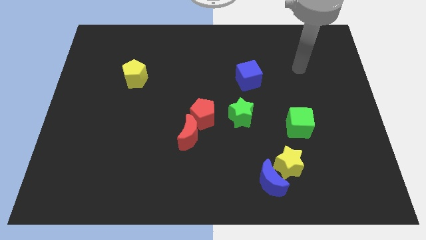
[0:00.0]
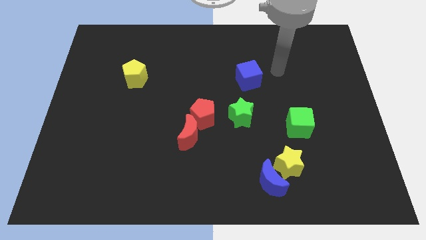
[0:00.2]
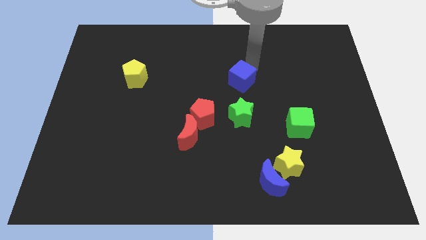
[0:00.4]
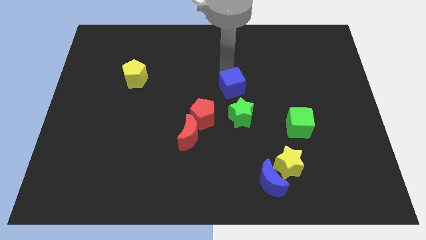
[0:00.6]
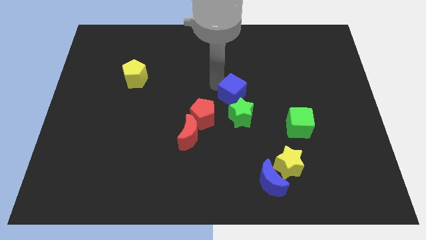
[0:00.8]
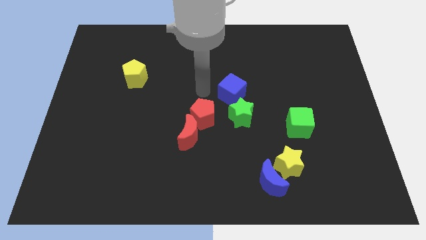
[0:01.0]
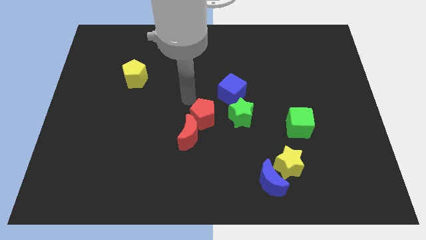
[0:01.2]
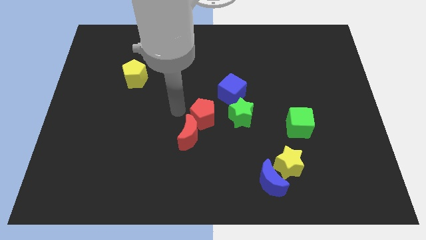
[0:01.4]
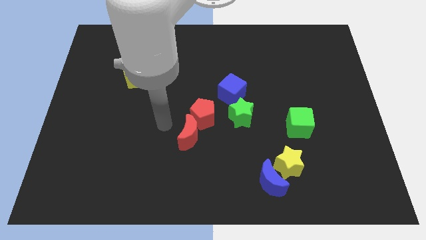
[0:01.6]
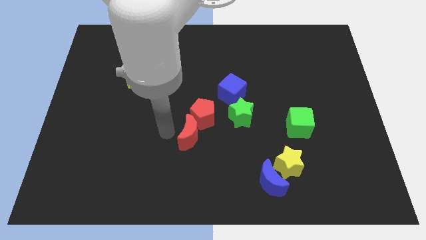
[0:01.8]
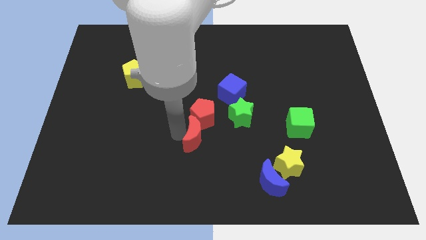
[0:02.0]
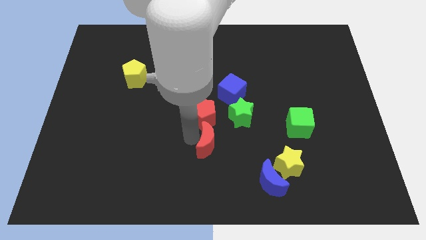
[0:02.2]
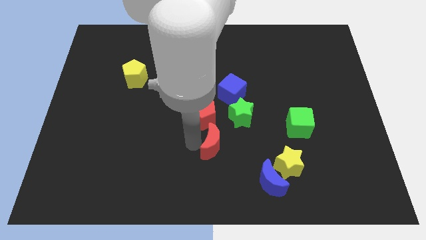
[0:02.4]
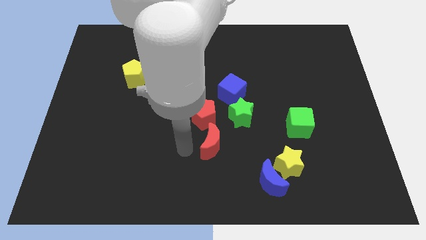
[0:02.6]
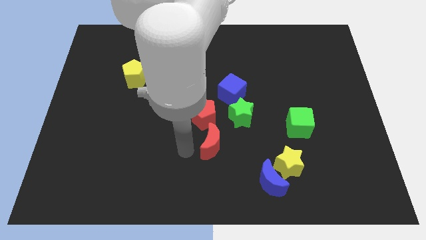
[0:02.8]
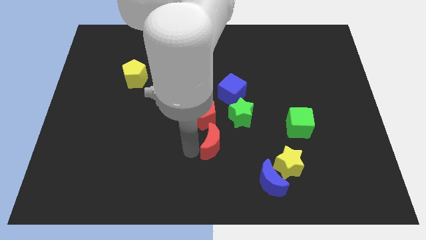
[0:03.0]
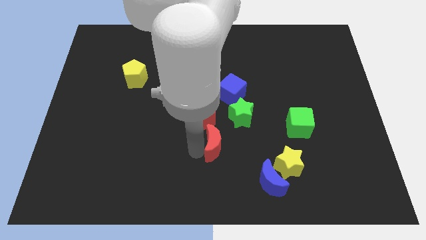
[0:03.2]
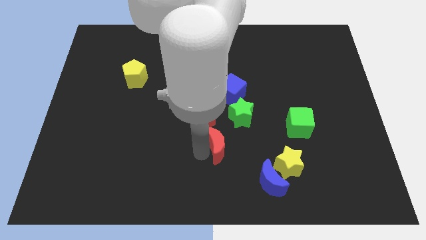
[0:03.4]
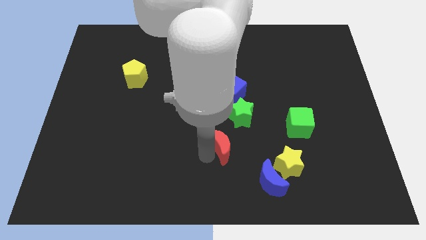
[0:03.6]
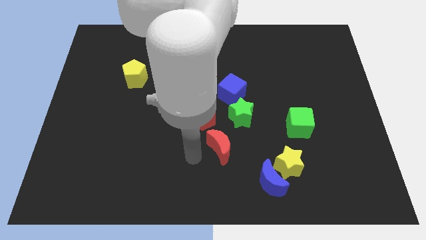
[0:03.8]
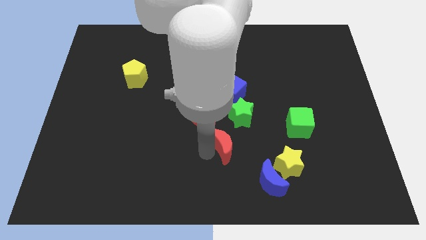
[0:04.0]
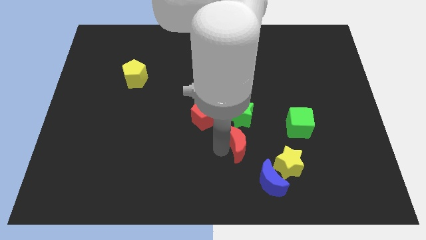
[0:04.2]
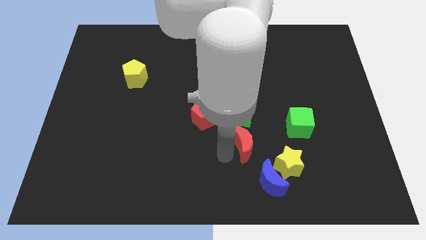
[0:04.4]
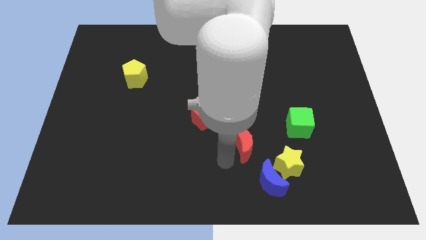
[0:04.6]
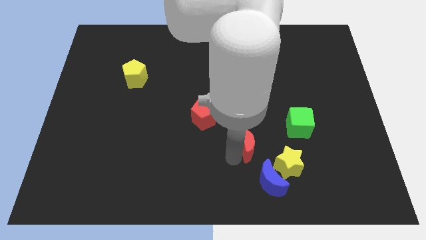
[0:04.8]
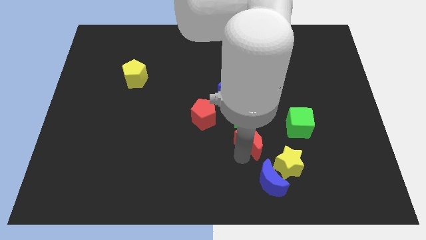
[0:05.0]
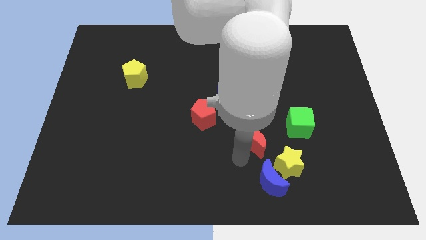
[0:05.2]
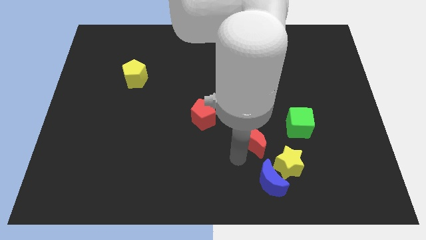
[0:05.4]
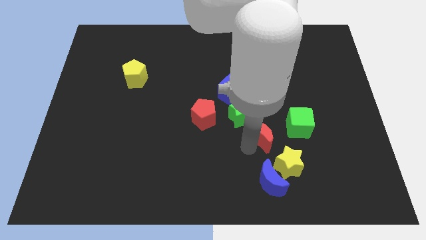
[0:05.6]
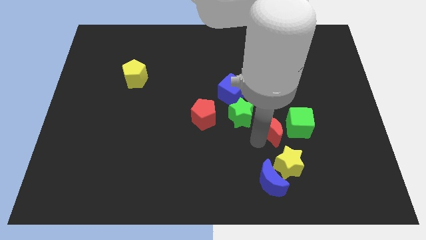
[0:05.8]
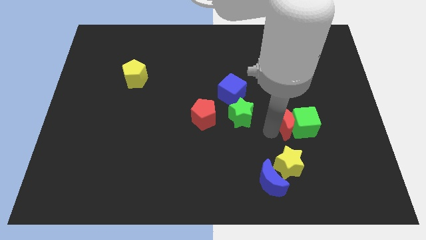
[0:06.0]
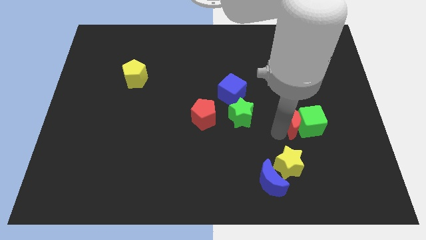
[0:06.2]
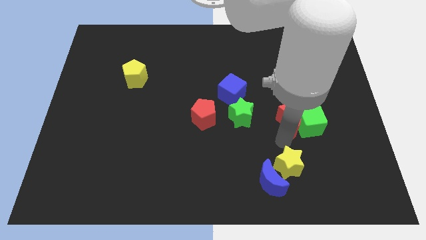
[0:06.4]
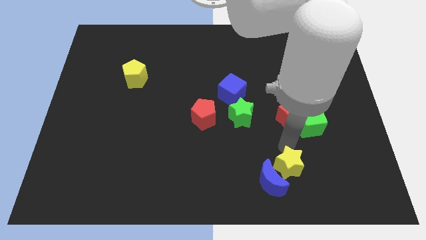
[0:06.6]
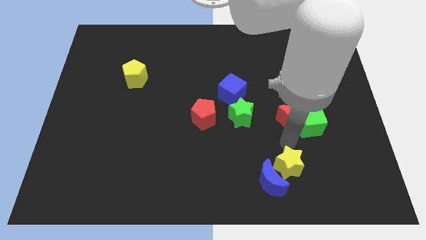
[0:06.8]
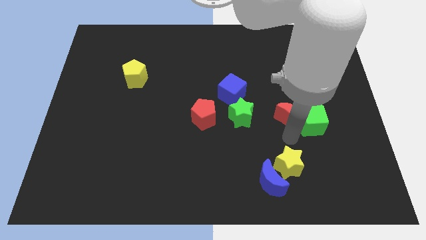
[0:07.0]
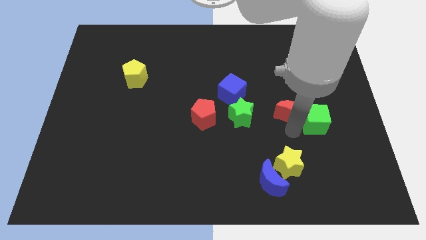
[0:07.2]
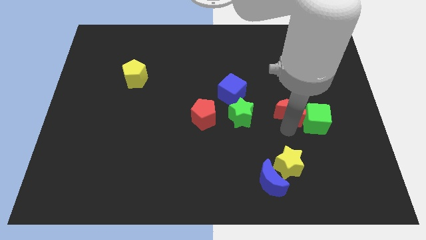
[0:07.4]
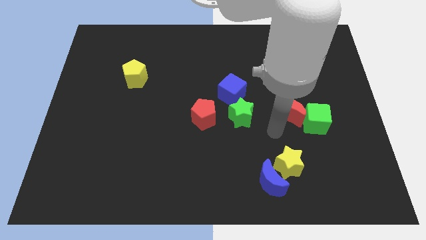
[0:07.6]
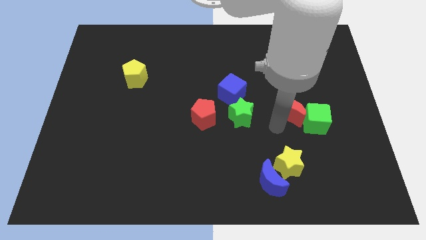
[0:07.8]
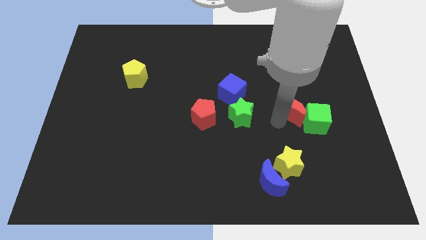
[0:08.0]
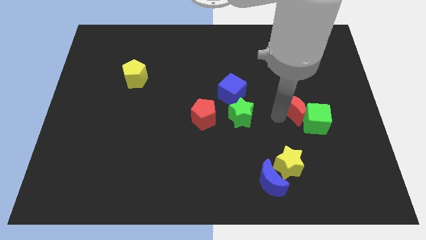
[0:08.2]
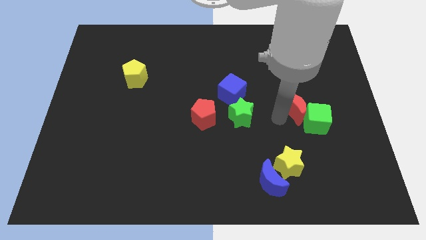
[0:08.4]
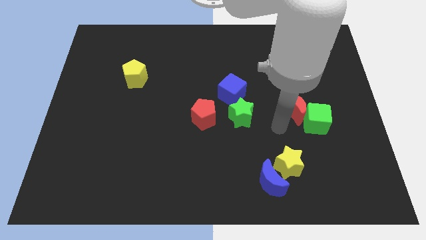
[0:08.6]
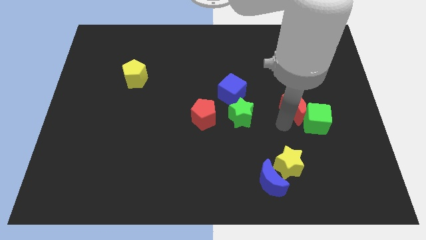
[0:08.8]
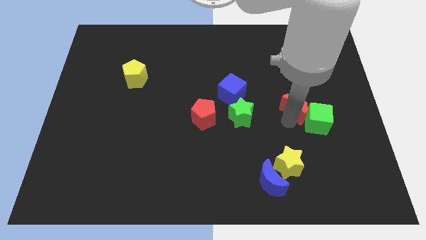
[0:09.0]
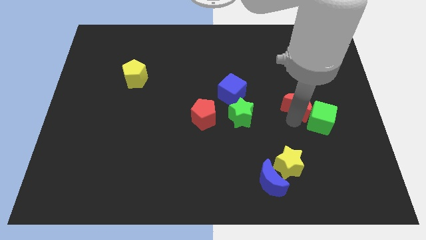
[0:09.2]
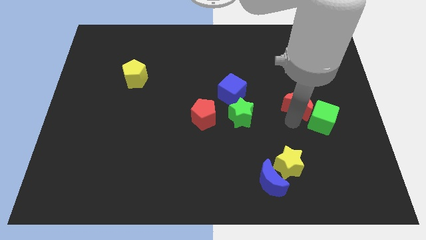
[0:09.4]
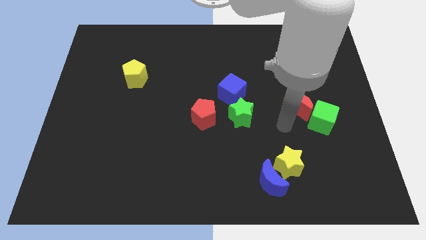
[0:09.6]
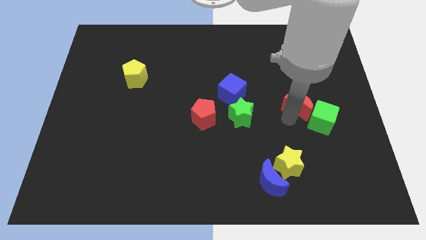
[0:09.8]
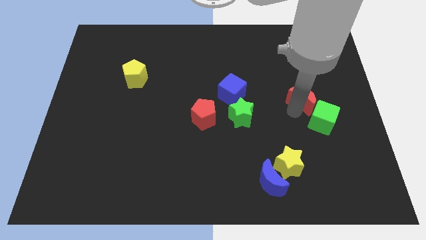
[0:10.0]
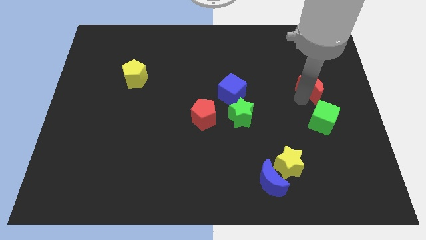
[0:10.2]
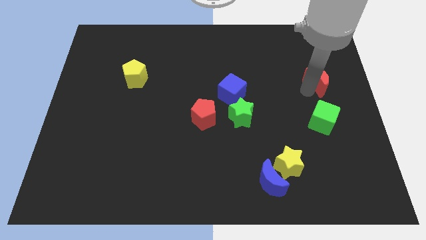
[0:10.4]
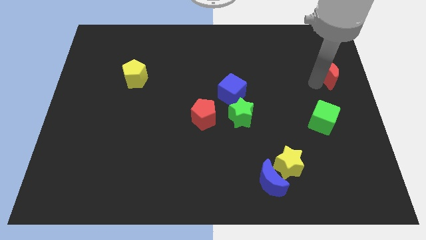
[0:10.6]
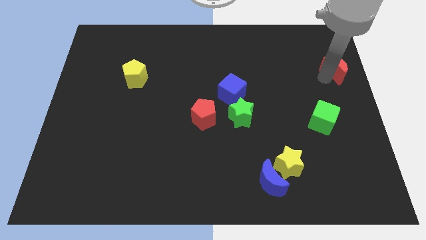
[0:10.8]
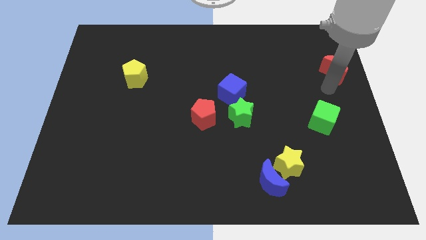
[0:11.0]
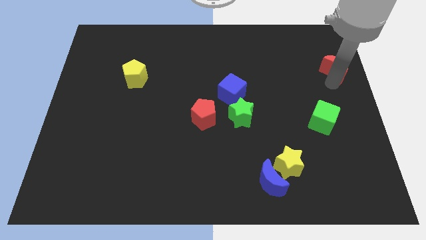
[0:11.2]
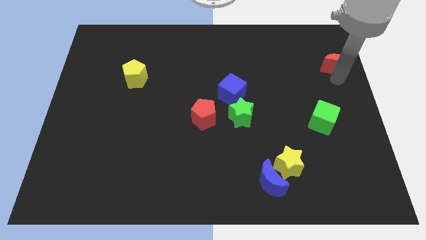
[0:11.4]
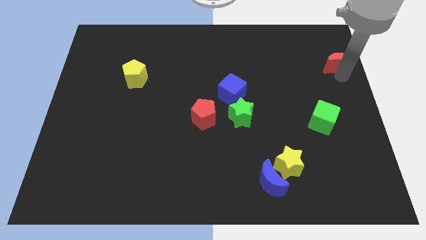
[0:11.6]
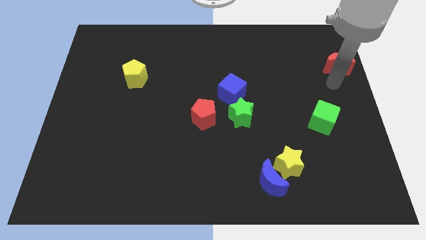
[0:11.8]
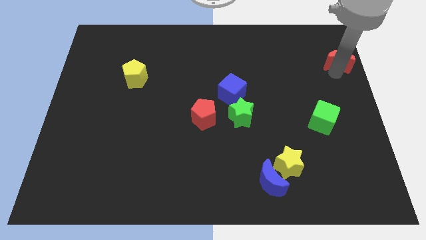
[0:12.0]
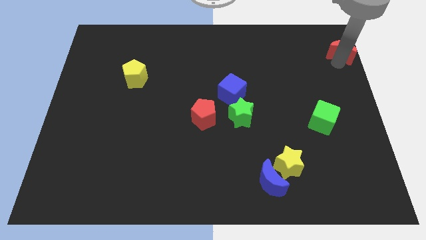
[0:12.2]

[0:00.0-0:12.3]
push the red moon to the top right
